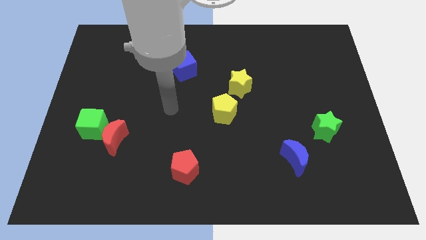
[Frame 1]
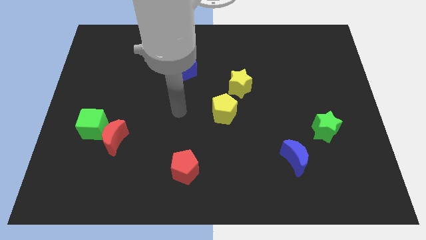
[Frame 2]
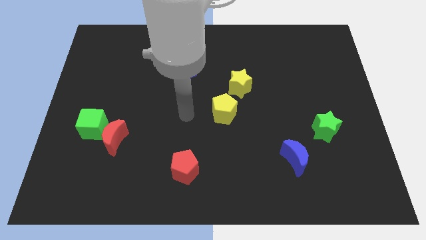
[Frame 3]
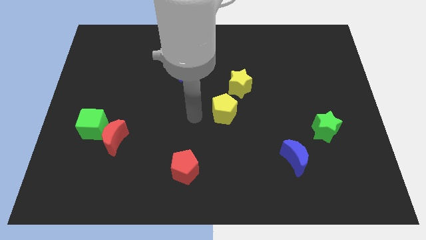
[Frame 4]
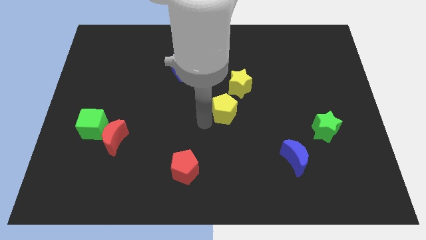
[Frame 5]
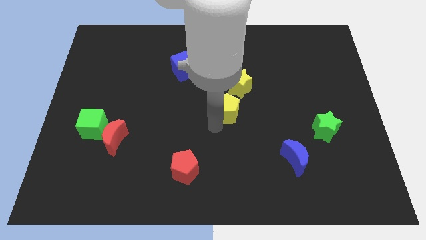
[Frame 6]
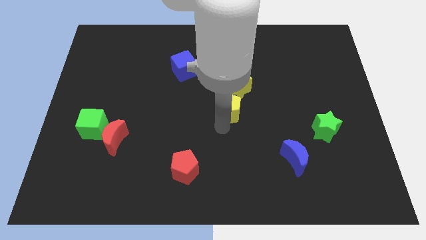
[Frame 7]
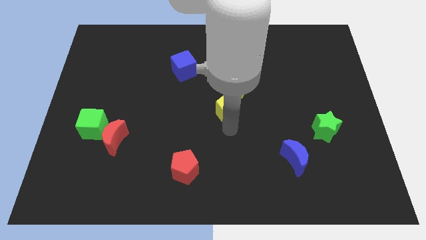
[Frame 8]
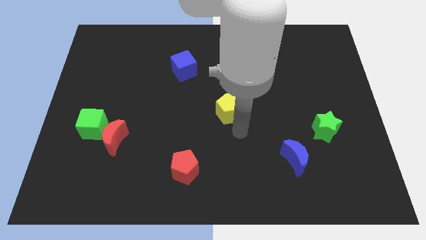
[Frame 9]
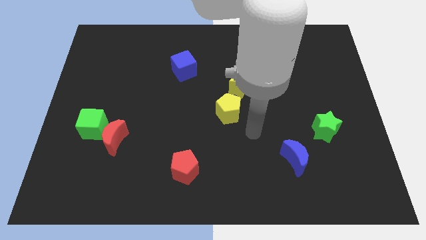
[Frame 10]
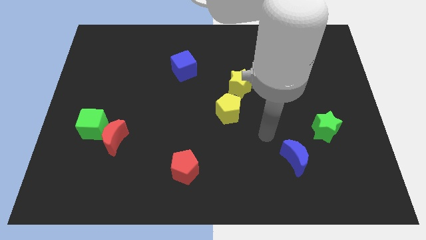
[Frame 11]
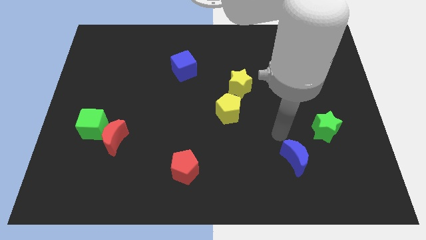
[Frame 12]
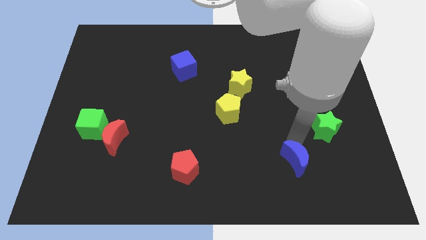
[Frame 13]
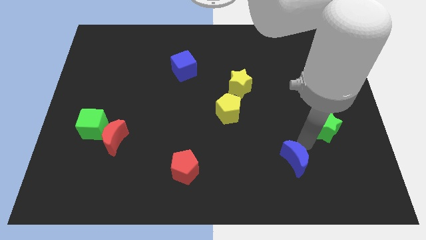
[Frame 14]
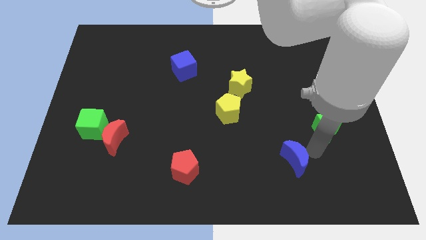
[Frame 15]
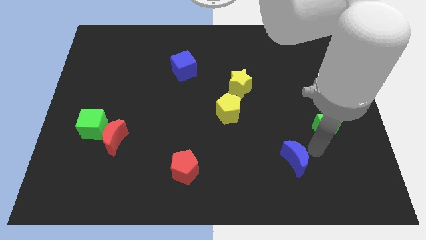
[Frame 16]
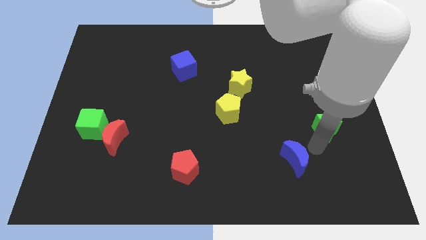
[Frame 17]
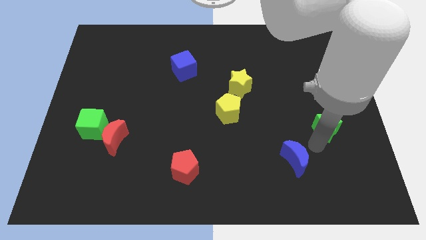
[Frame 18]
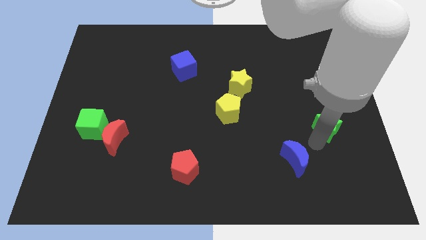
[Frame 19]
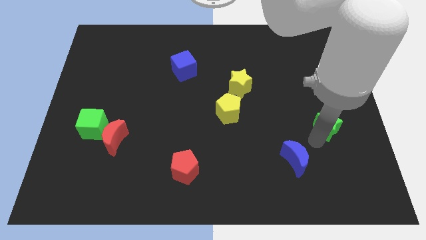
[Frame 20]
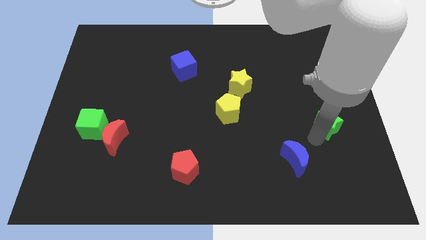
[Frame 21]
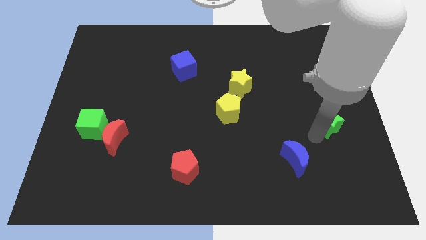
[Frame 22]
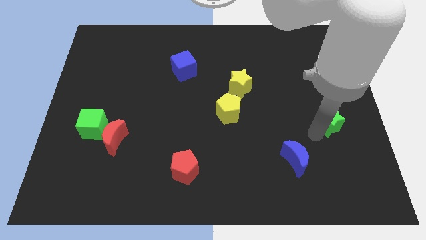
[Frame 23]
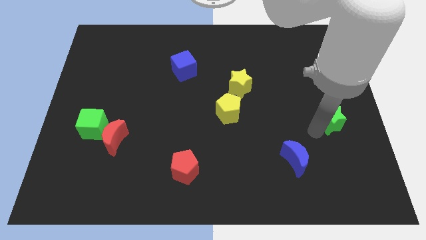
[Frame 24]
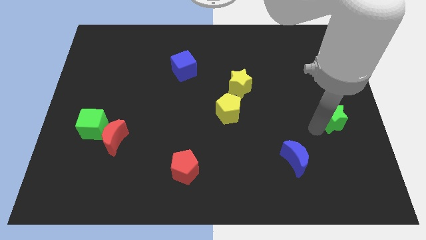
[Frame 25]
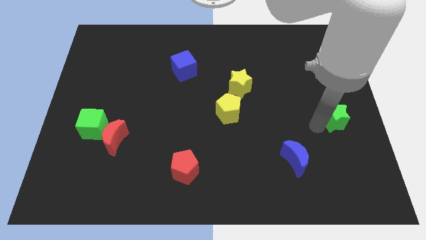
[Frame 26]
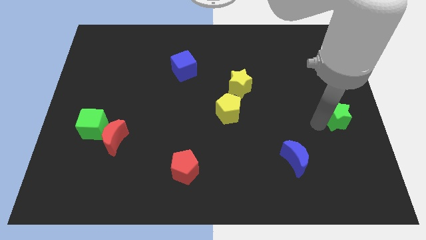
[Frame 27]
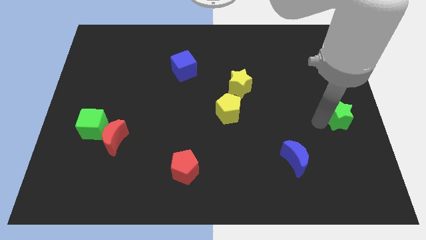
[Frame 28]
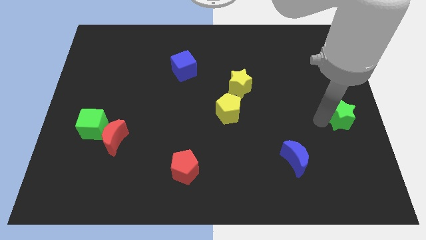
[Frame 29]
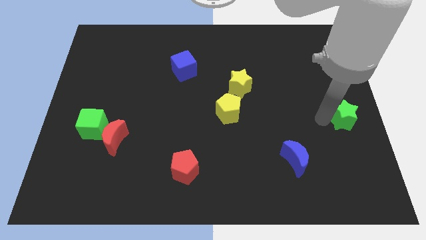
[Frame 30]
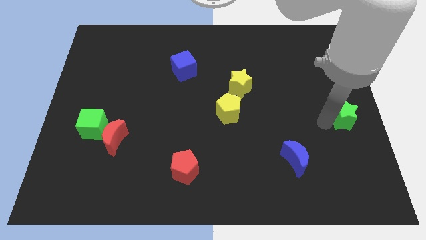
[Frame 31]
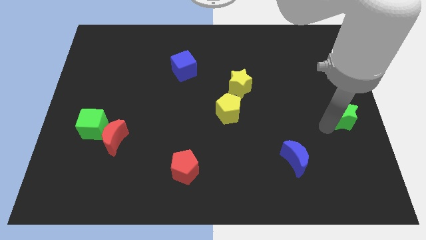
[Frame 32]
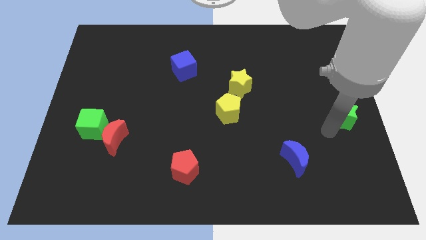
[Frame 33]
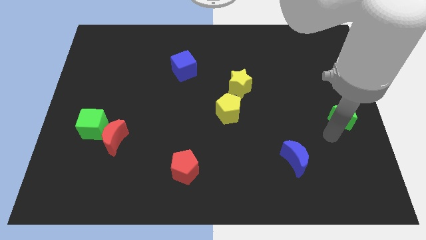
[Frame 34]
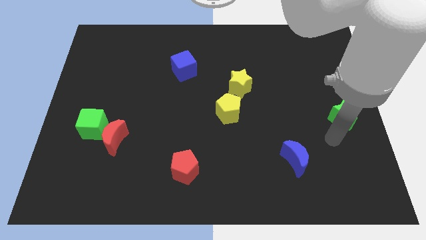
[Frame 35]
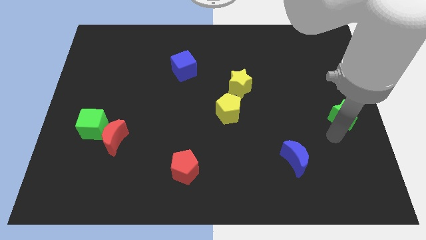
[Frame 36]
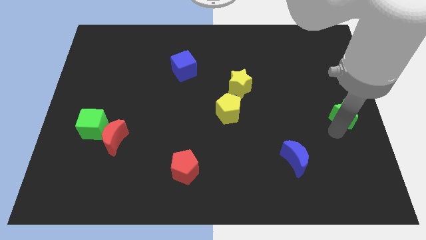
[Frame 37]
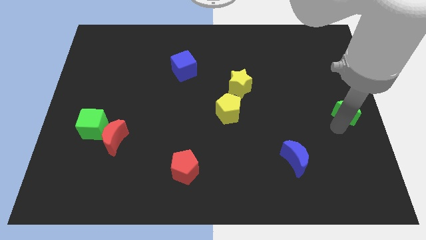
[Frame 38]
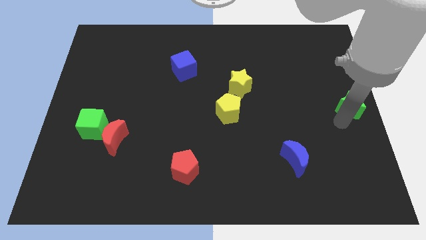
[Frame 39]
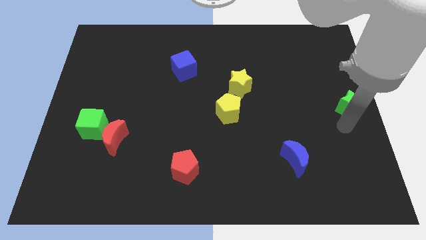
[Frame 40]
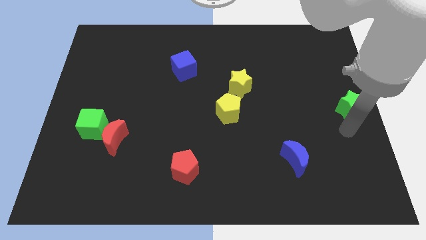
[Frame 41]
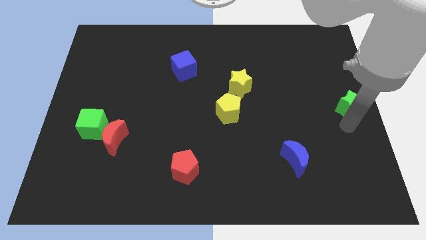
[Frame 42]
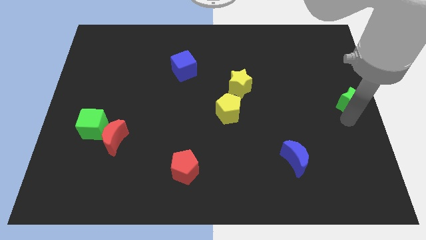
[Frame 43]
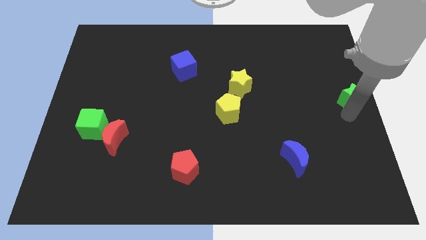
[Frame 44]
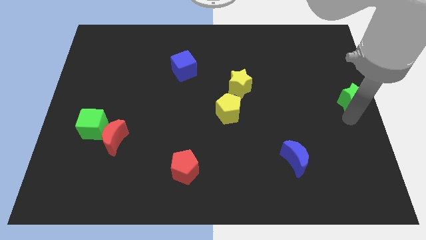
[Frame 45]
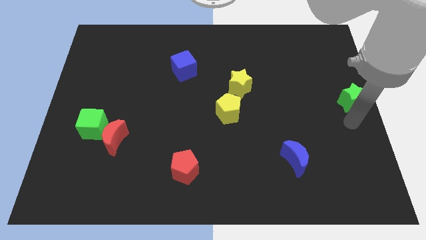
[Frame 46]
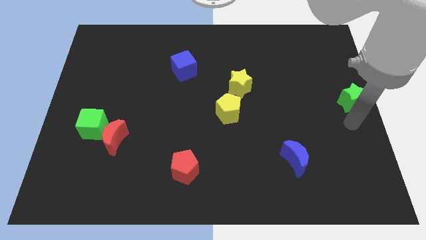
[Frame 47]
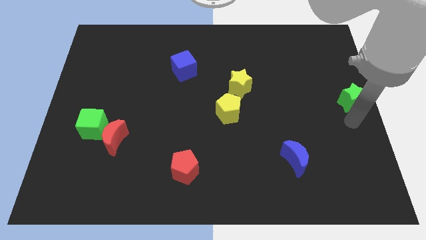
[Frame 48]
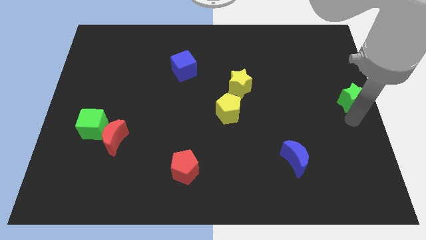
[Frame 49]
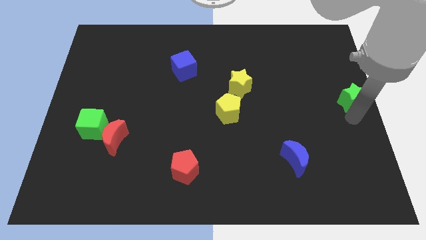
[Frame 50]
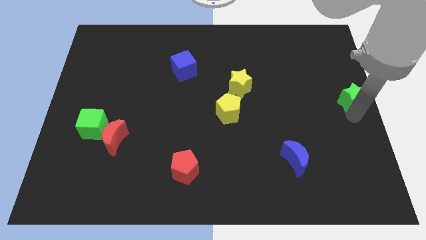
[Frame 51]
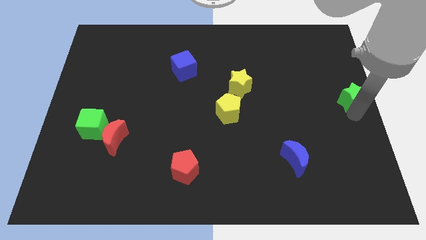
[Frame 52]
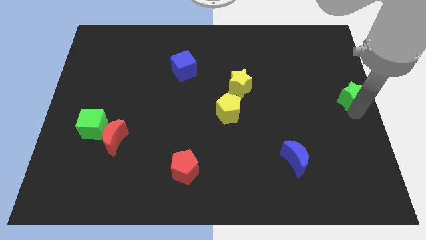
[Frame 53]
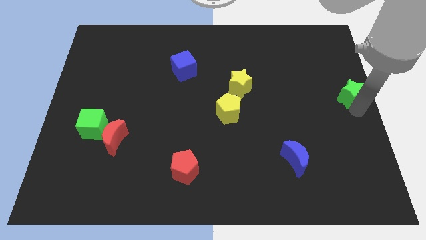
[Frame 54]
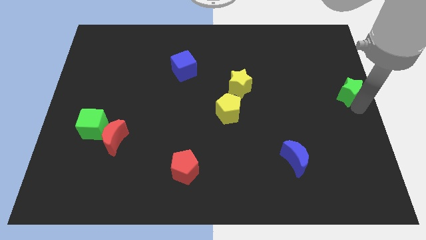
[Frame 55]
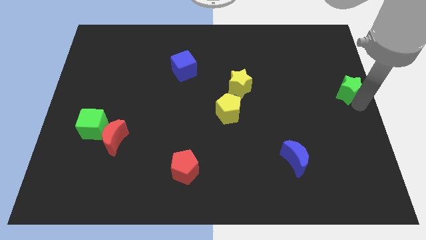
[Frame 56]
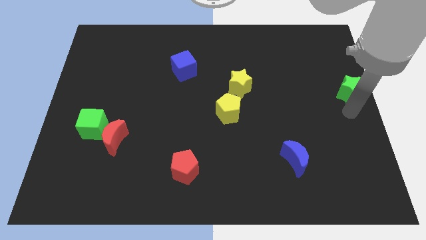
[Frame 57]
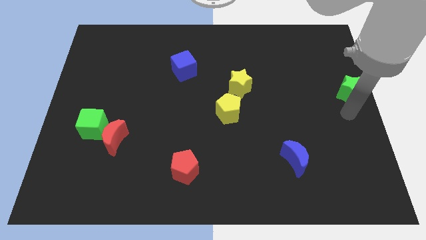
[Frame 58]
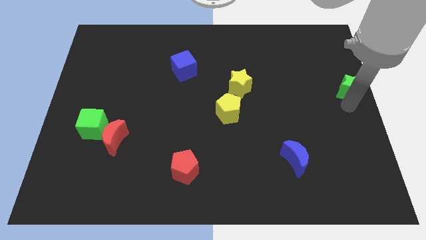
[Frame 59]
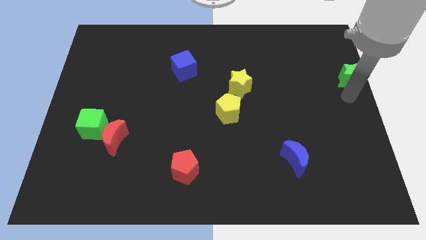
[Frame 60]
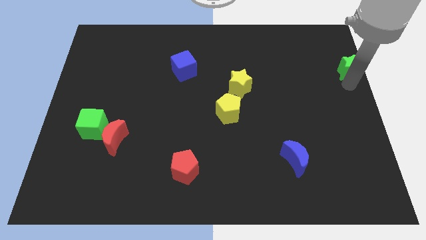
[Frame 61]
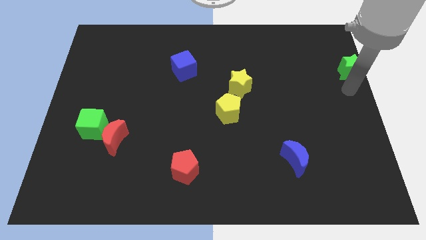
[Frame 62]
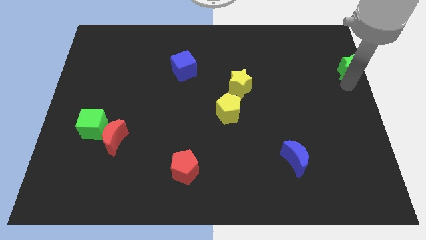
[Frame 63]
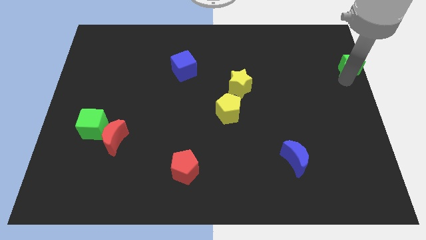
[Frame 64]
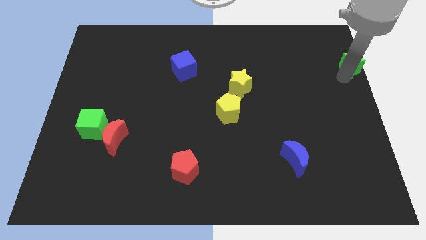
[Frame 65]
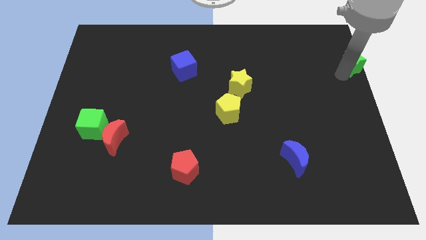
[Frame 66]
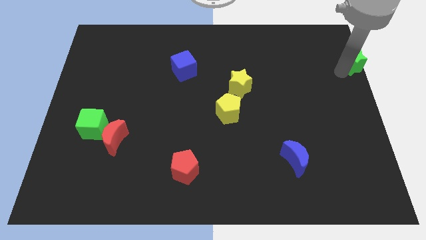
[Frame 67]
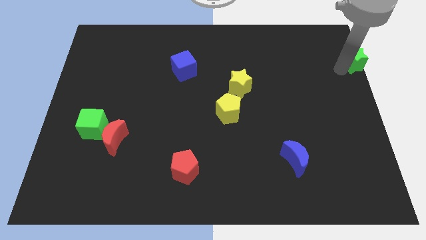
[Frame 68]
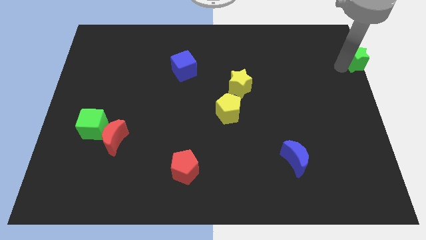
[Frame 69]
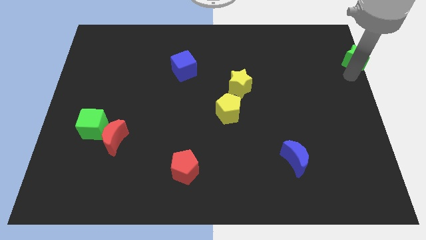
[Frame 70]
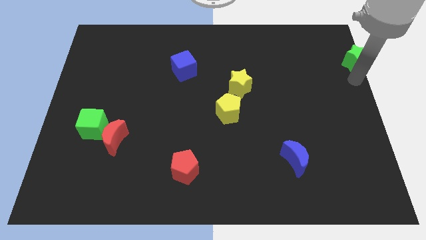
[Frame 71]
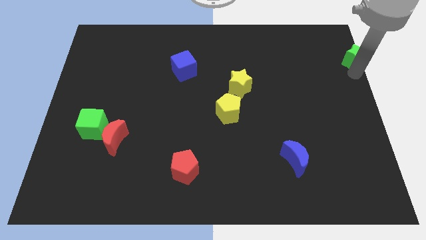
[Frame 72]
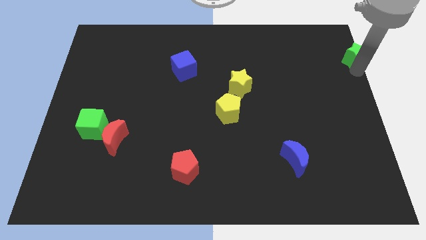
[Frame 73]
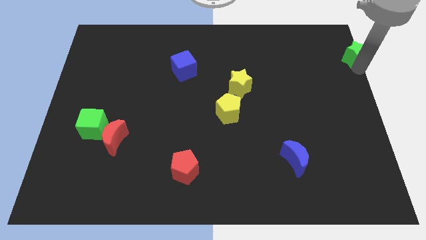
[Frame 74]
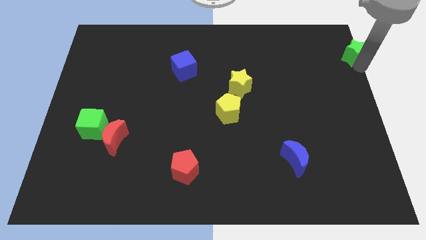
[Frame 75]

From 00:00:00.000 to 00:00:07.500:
slide the green star to the top right corner

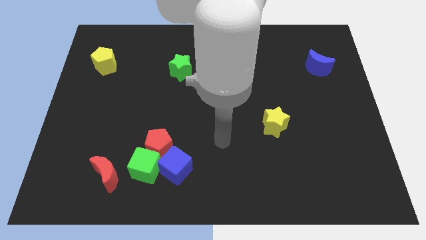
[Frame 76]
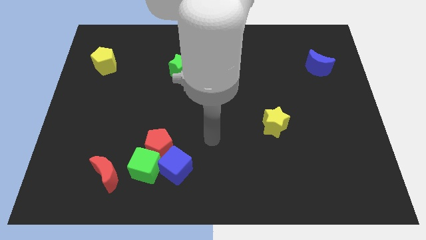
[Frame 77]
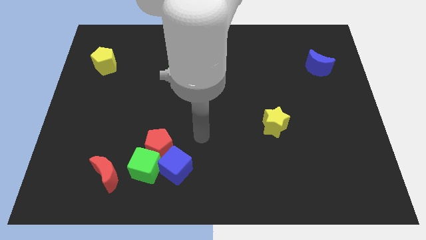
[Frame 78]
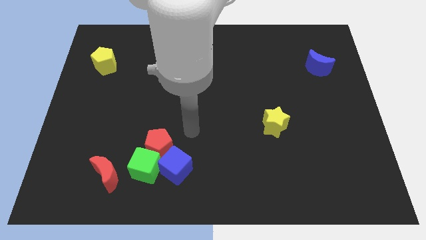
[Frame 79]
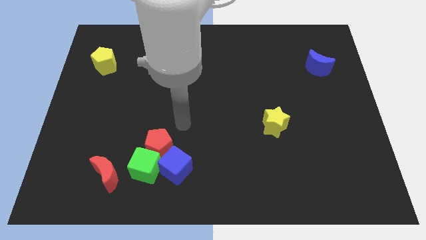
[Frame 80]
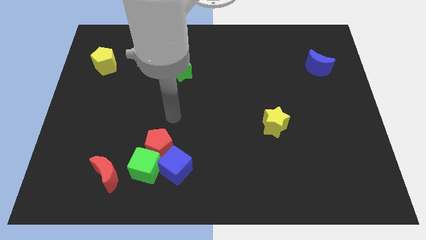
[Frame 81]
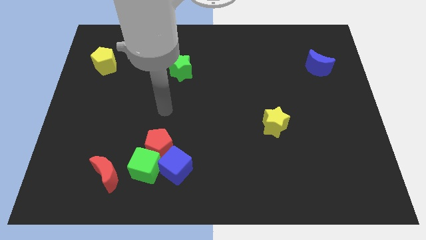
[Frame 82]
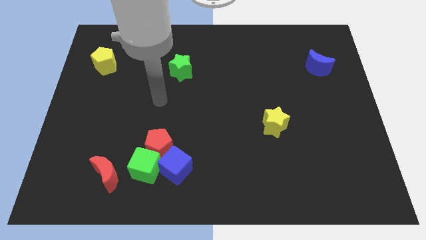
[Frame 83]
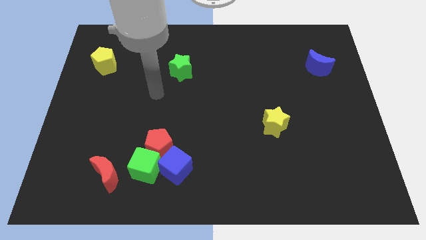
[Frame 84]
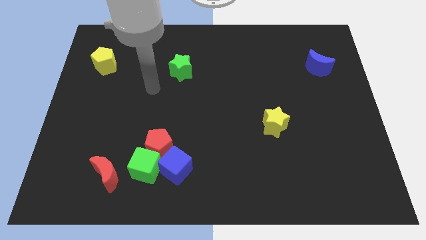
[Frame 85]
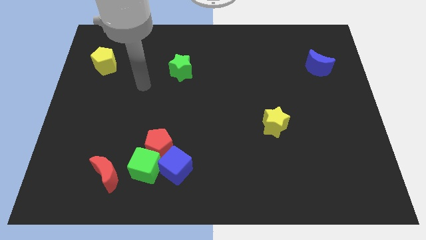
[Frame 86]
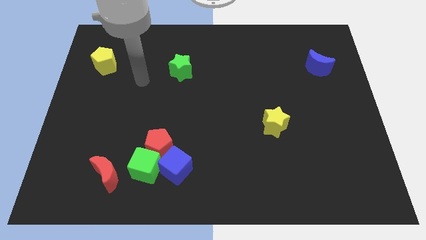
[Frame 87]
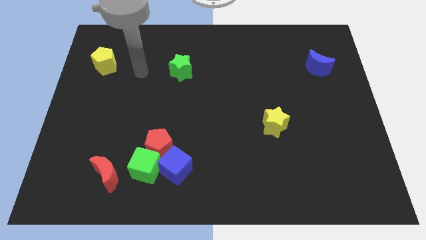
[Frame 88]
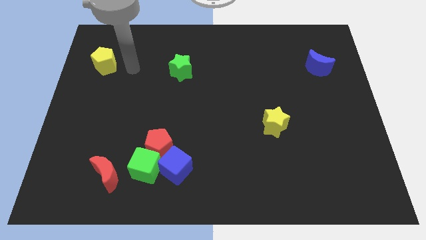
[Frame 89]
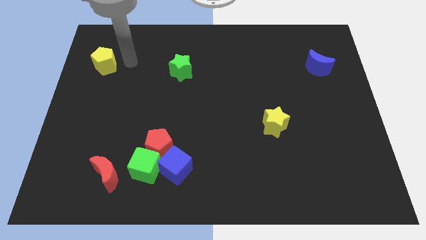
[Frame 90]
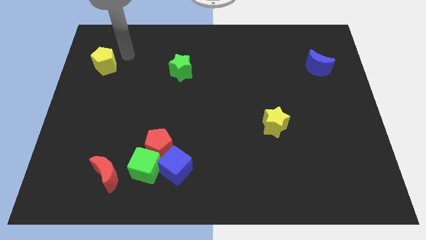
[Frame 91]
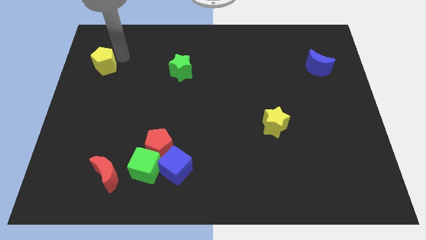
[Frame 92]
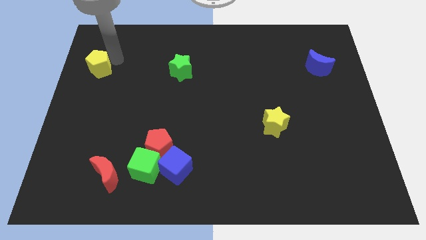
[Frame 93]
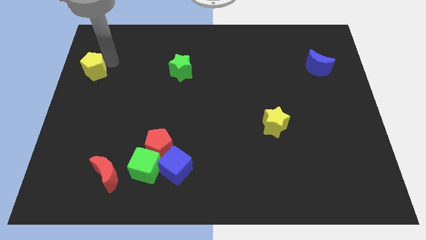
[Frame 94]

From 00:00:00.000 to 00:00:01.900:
put the yellow pentagon to the center left
